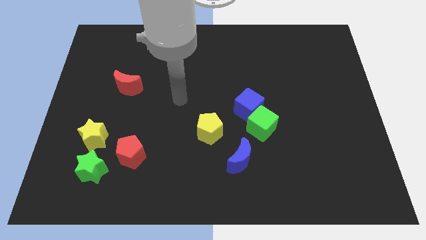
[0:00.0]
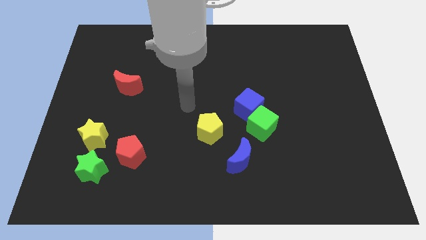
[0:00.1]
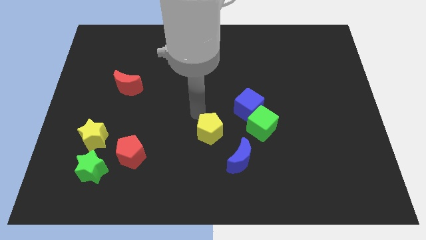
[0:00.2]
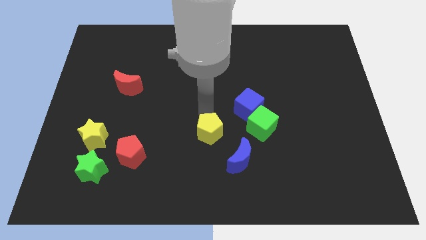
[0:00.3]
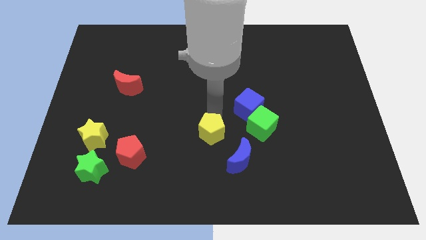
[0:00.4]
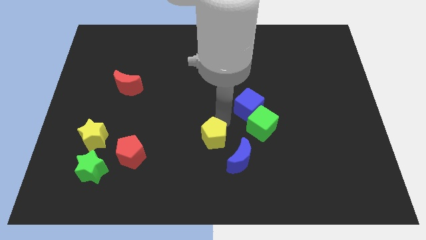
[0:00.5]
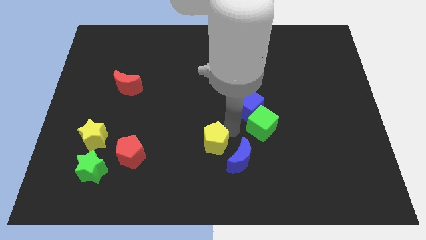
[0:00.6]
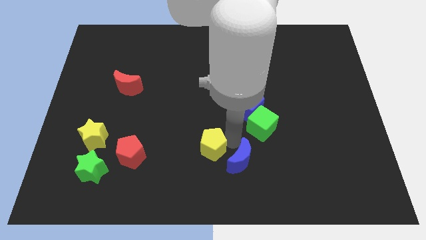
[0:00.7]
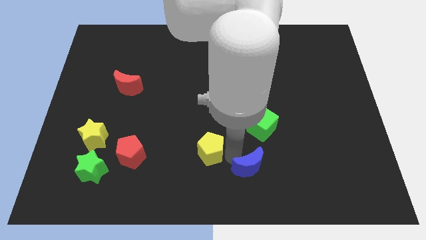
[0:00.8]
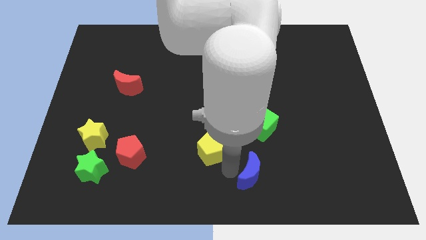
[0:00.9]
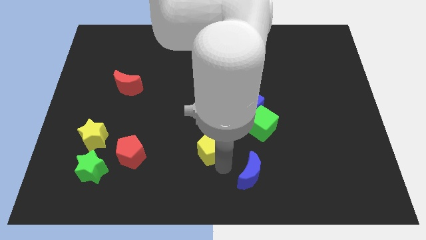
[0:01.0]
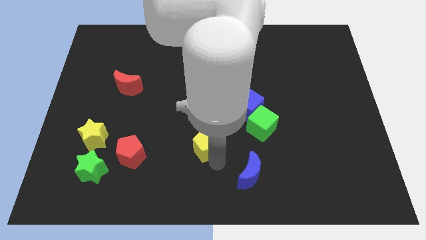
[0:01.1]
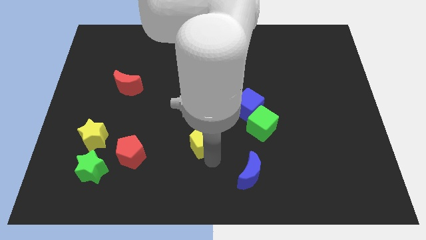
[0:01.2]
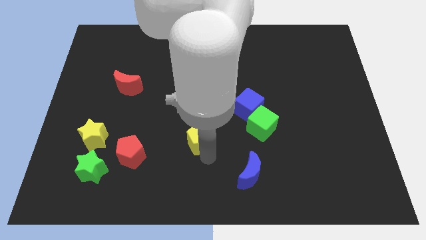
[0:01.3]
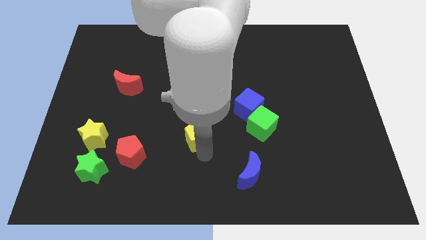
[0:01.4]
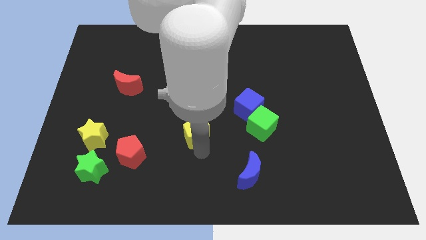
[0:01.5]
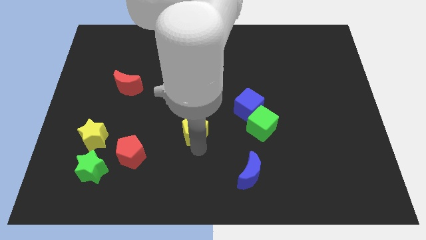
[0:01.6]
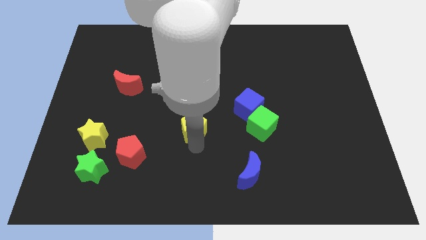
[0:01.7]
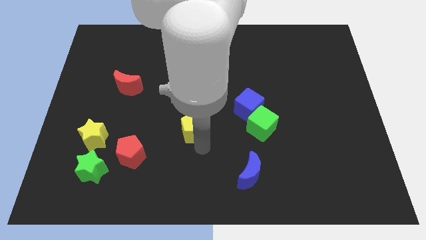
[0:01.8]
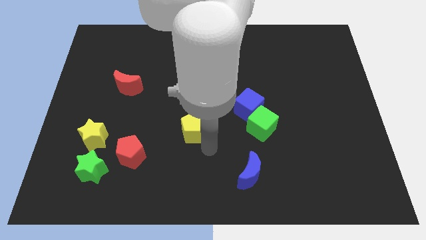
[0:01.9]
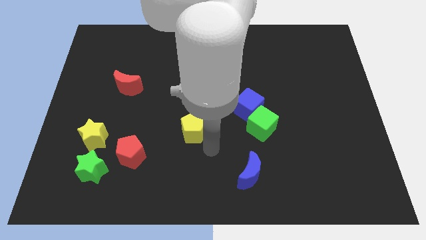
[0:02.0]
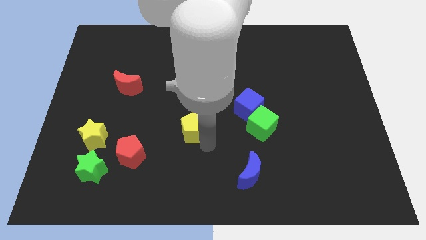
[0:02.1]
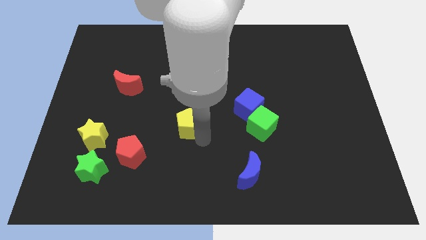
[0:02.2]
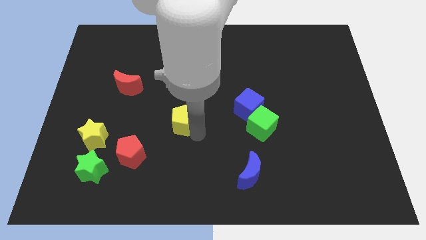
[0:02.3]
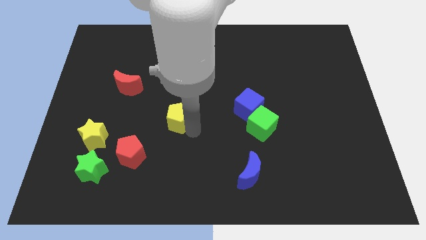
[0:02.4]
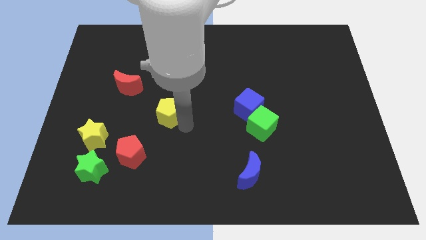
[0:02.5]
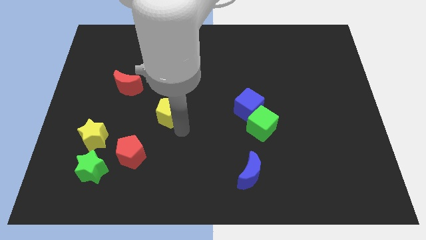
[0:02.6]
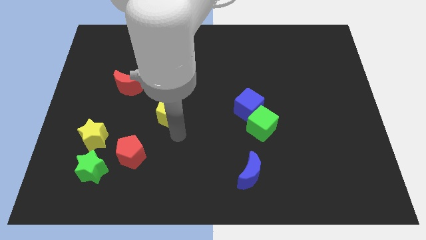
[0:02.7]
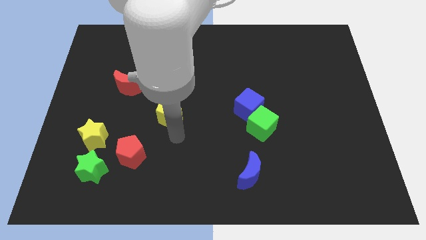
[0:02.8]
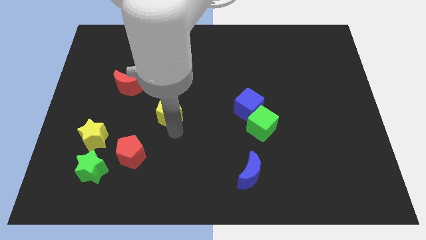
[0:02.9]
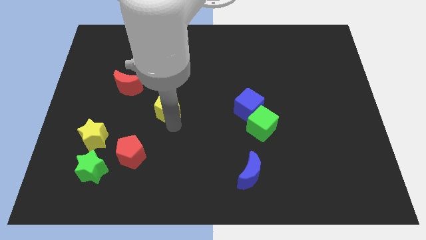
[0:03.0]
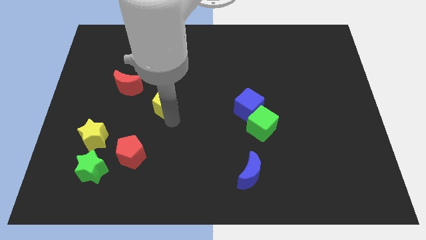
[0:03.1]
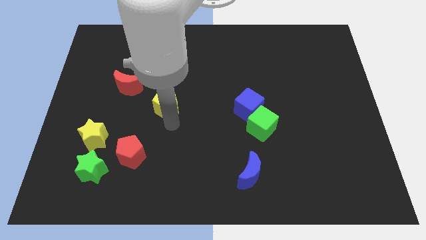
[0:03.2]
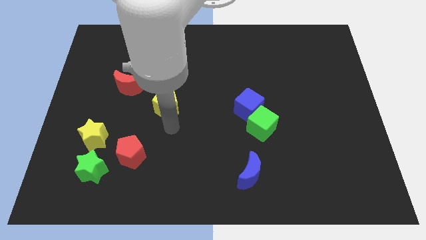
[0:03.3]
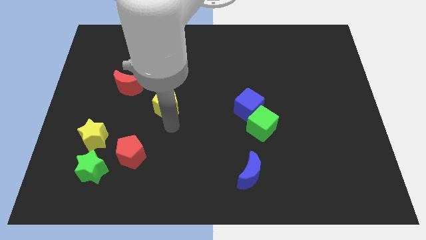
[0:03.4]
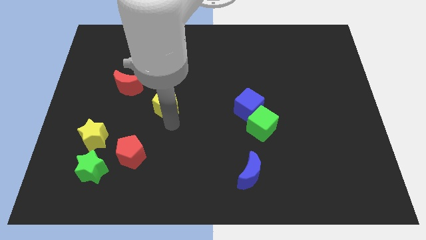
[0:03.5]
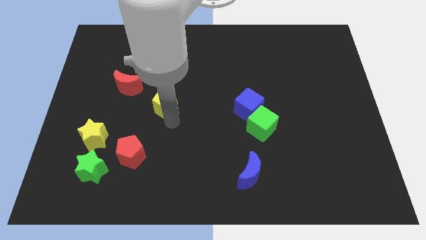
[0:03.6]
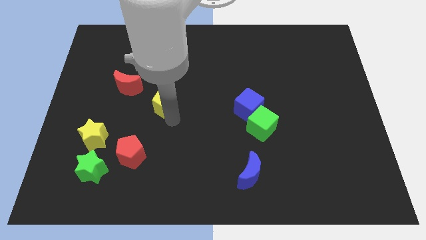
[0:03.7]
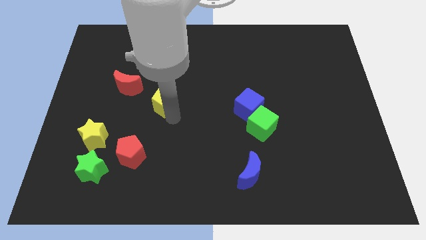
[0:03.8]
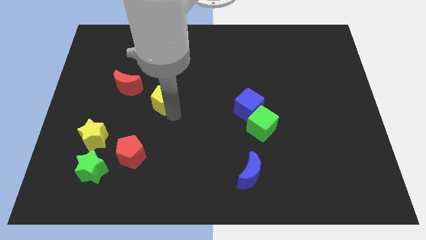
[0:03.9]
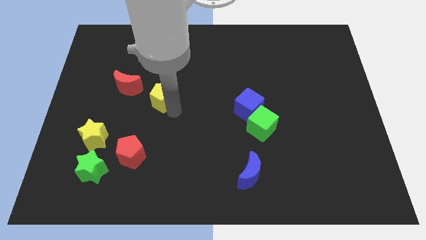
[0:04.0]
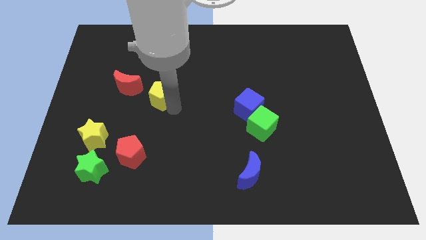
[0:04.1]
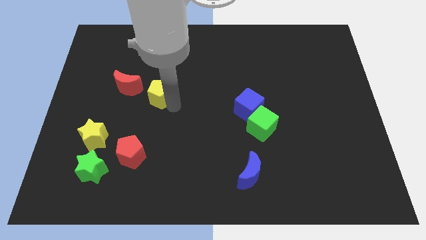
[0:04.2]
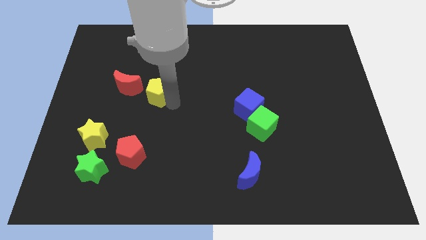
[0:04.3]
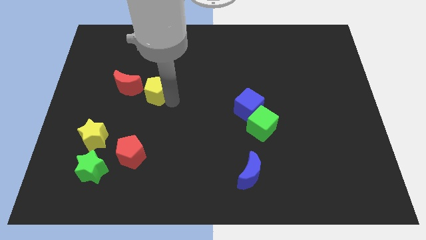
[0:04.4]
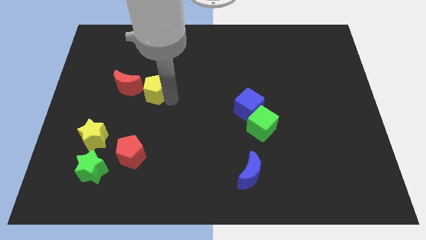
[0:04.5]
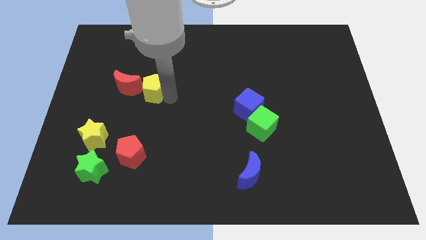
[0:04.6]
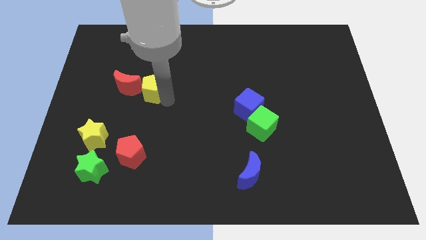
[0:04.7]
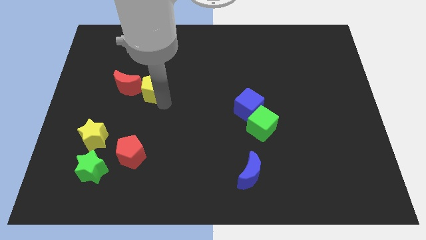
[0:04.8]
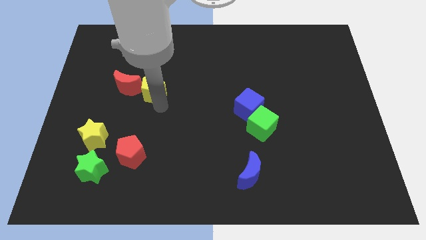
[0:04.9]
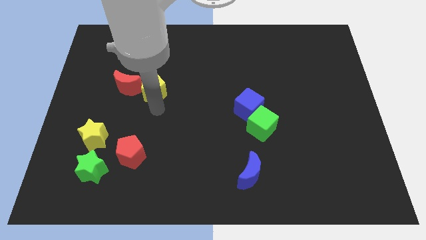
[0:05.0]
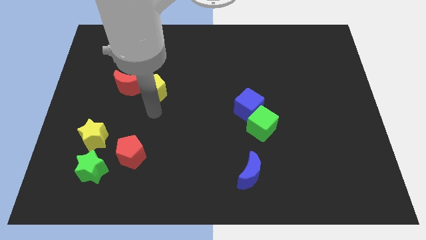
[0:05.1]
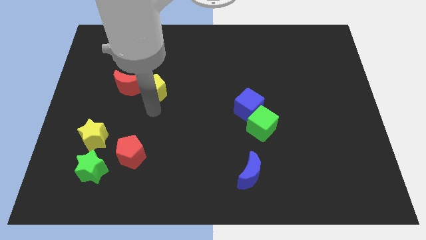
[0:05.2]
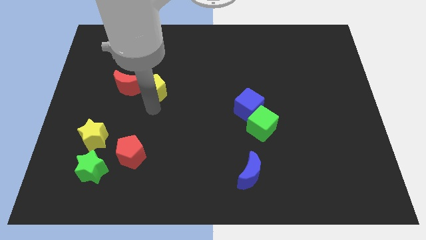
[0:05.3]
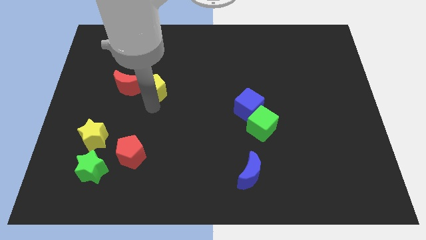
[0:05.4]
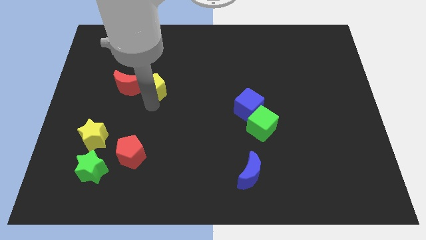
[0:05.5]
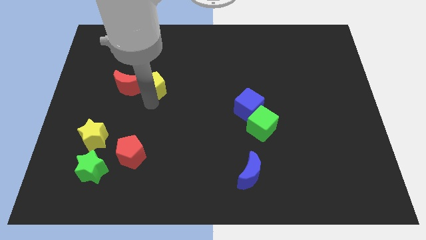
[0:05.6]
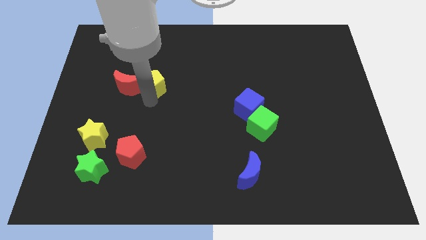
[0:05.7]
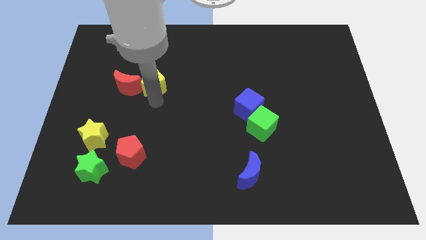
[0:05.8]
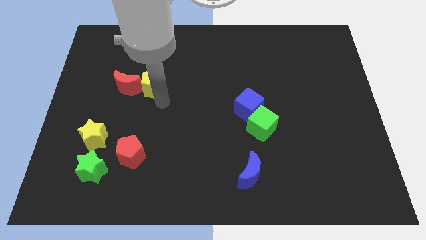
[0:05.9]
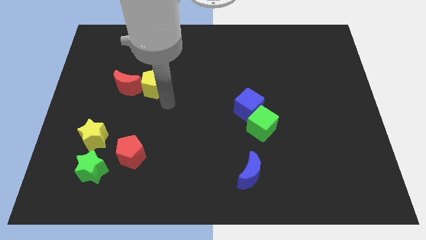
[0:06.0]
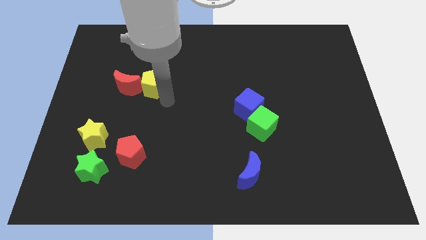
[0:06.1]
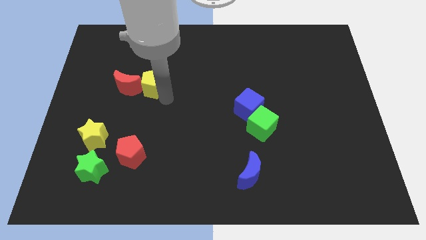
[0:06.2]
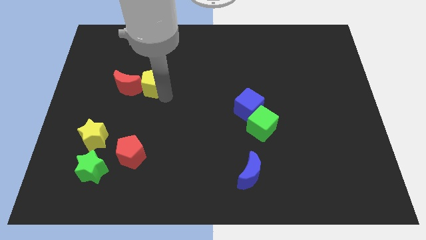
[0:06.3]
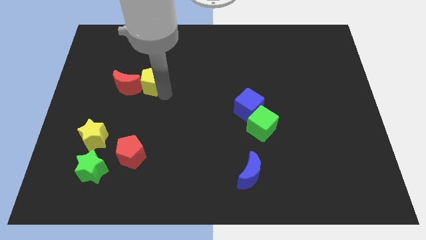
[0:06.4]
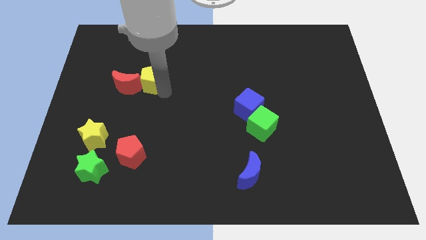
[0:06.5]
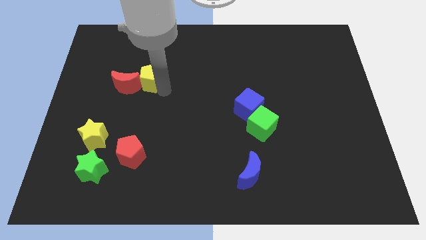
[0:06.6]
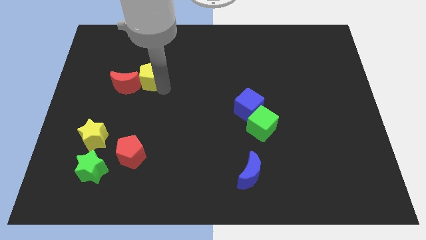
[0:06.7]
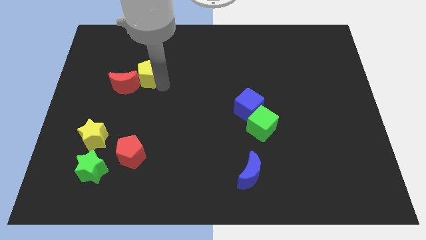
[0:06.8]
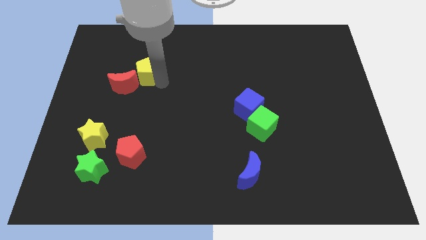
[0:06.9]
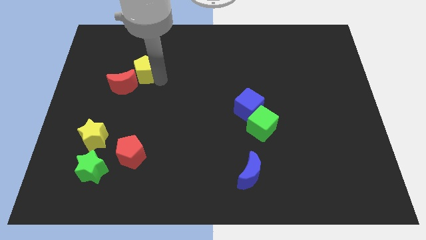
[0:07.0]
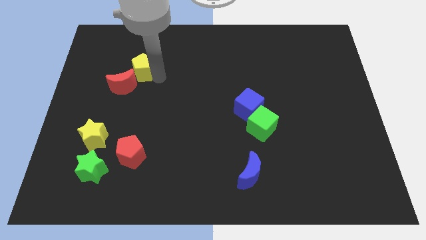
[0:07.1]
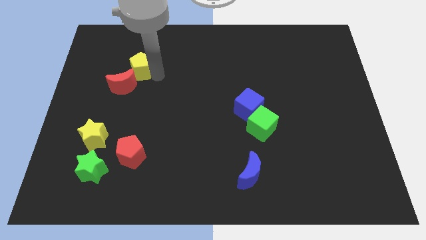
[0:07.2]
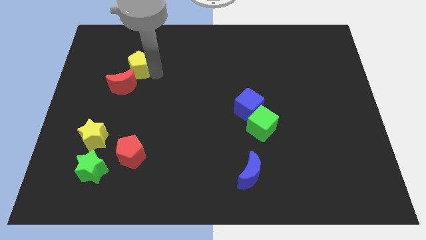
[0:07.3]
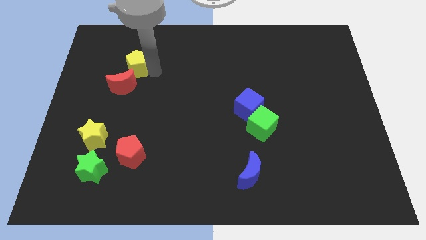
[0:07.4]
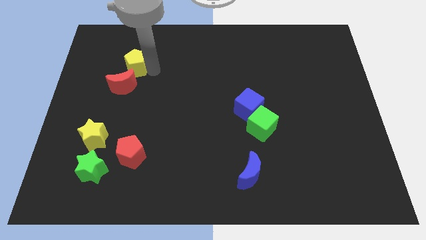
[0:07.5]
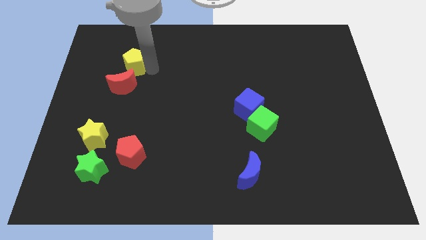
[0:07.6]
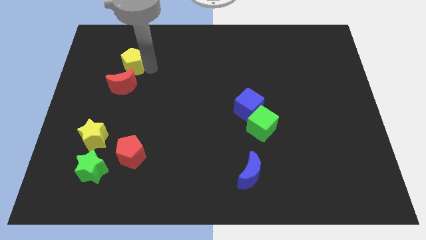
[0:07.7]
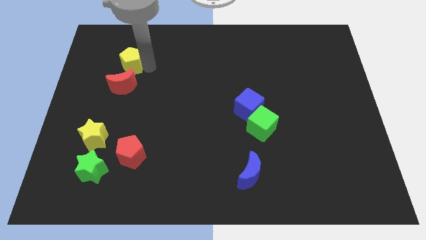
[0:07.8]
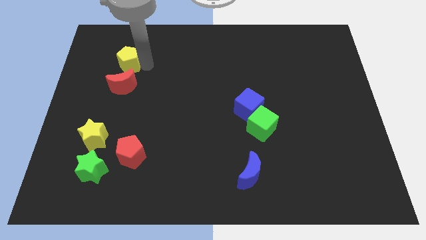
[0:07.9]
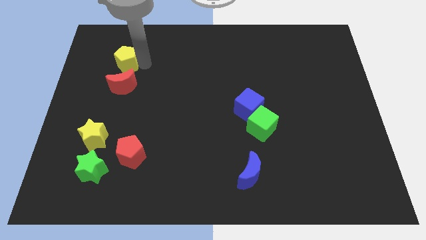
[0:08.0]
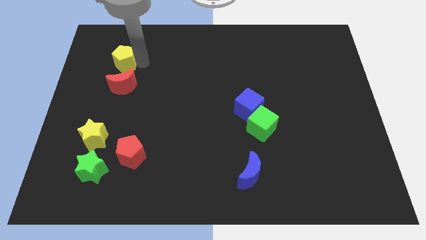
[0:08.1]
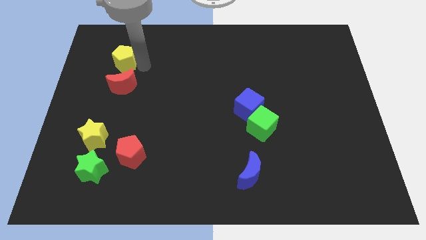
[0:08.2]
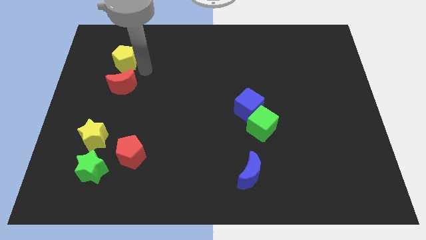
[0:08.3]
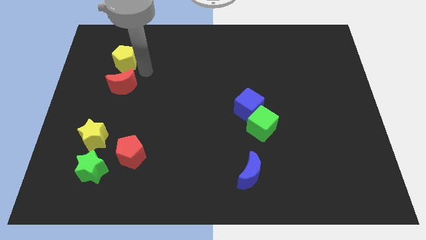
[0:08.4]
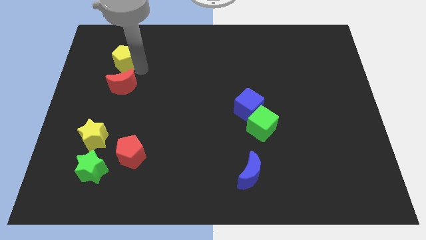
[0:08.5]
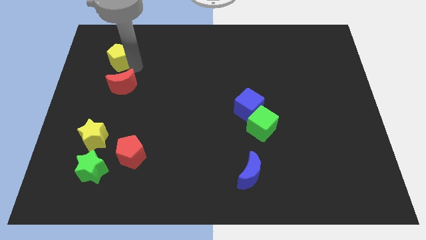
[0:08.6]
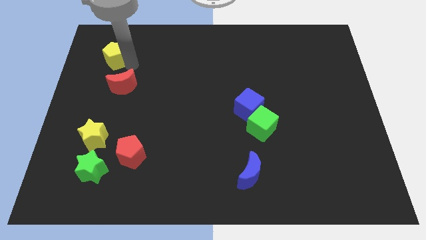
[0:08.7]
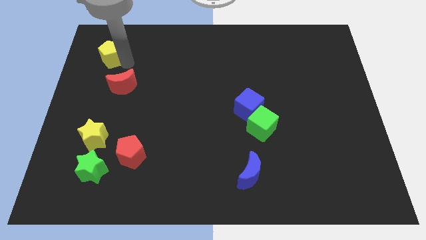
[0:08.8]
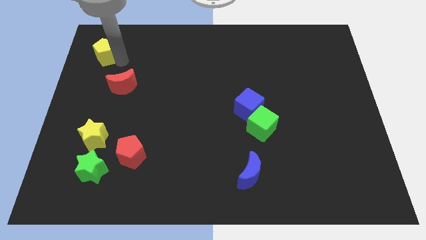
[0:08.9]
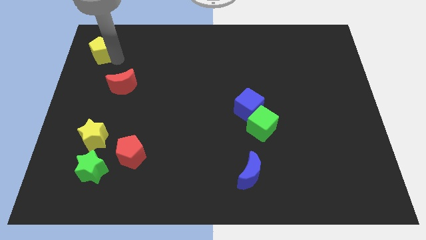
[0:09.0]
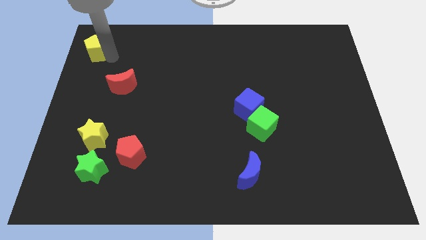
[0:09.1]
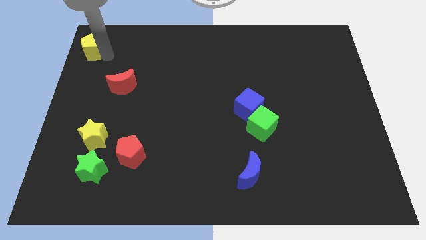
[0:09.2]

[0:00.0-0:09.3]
put the yellow pentagon to the top left of the board
